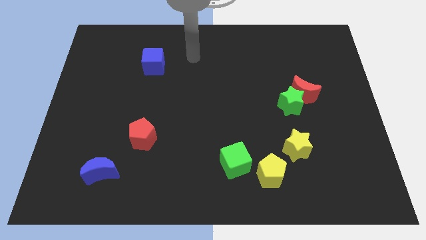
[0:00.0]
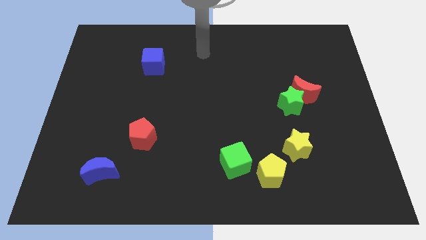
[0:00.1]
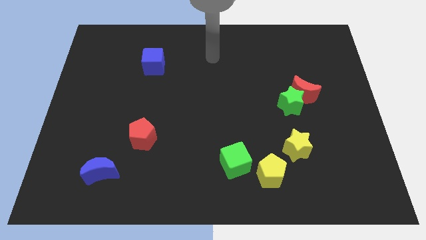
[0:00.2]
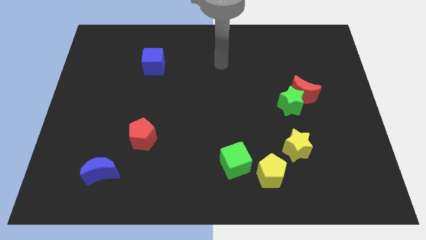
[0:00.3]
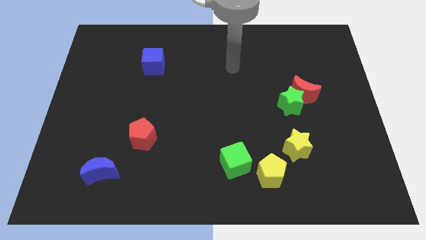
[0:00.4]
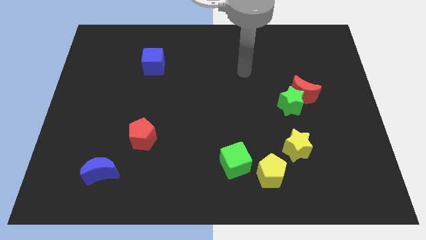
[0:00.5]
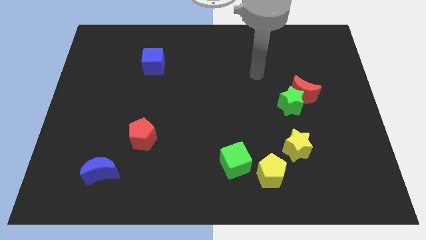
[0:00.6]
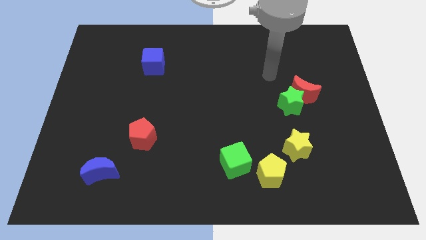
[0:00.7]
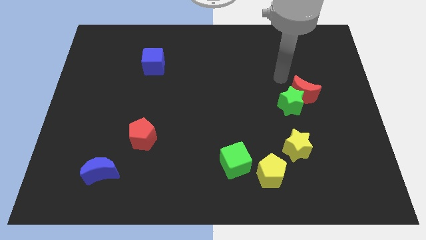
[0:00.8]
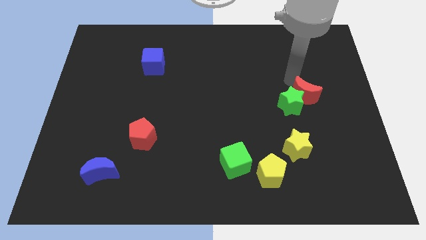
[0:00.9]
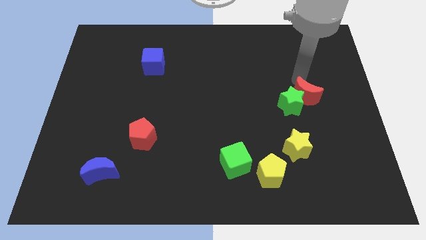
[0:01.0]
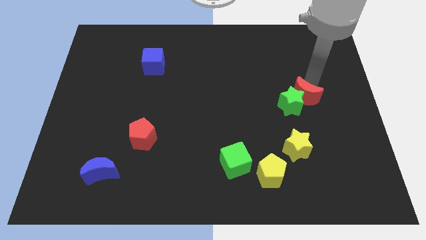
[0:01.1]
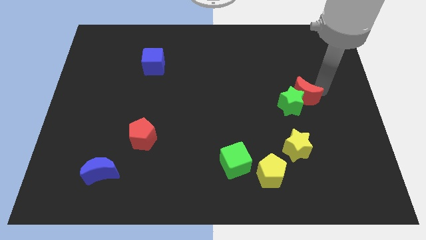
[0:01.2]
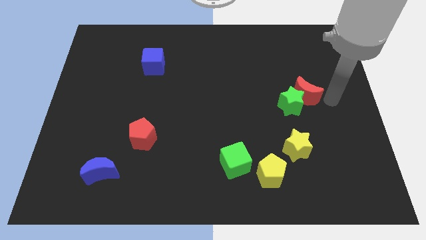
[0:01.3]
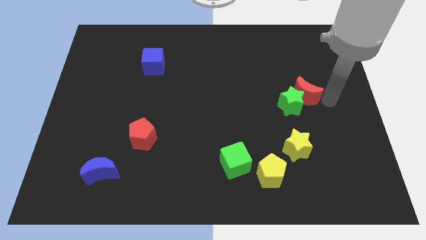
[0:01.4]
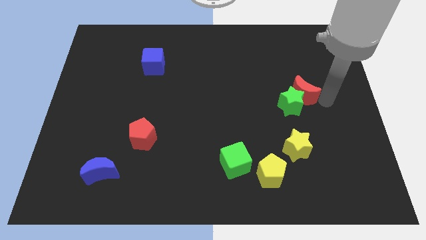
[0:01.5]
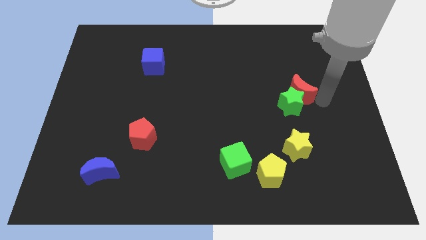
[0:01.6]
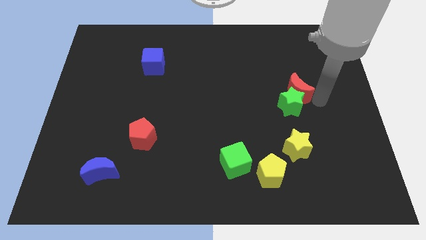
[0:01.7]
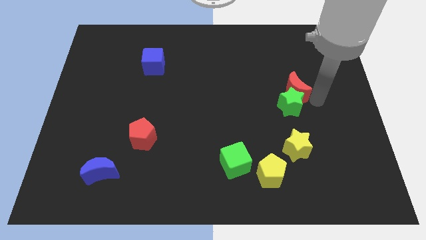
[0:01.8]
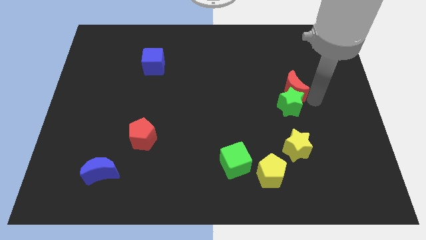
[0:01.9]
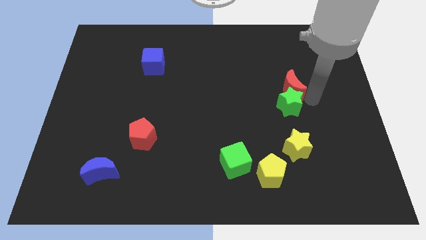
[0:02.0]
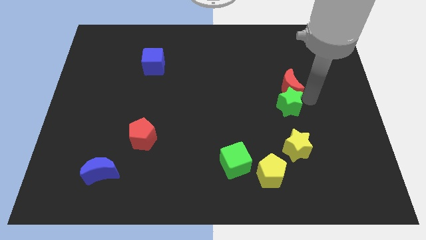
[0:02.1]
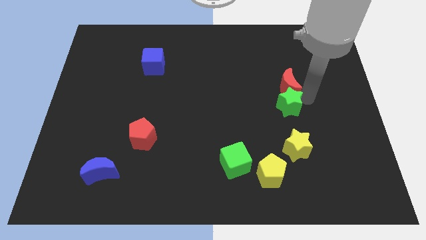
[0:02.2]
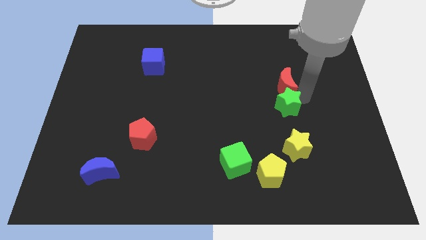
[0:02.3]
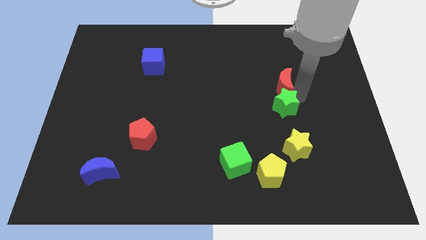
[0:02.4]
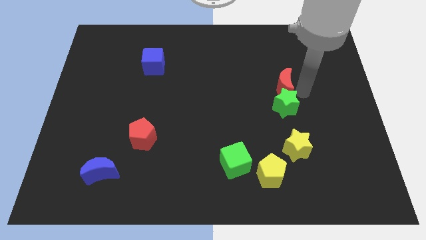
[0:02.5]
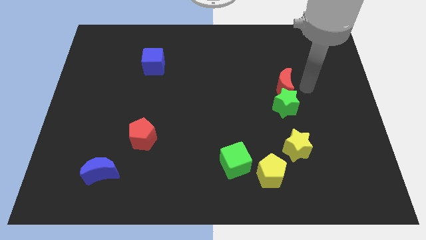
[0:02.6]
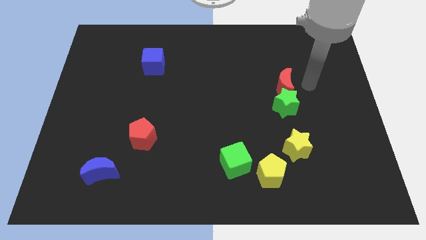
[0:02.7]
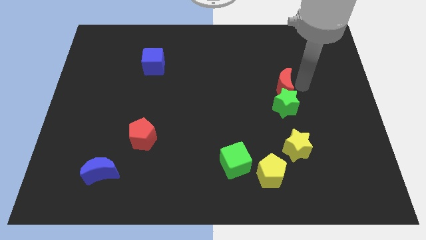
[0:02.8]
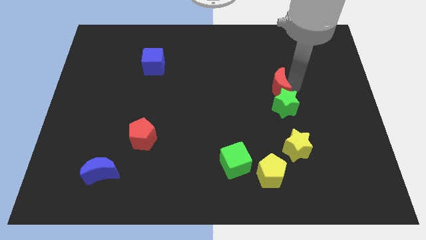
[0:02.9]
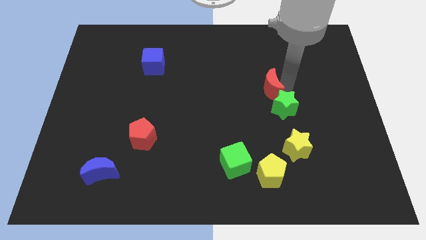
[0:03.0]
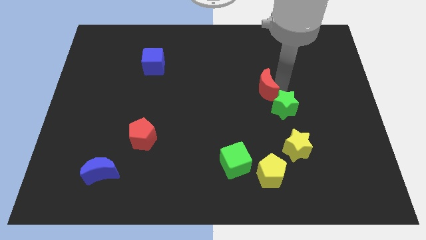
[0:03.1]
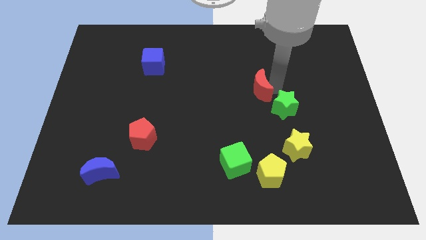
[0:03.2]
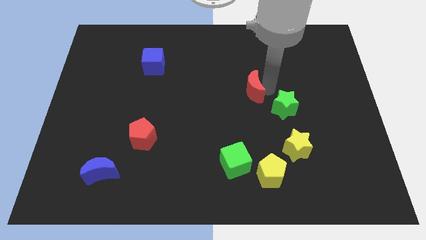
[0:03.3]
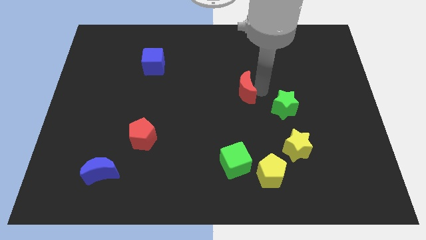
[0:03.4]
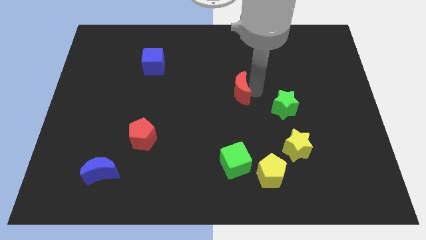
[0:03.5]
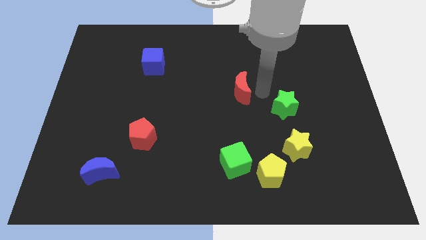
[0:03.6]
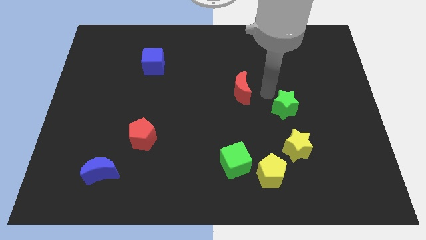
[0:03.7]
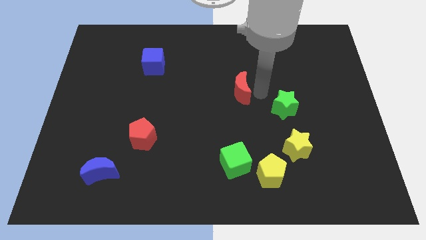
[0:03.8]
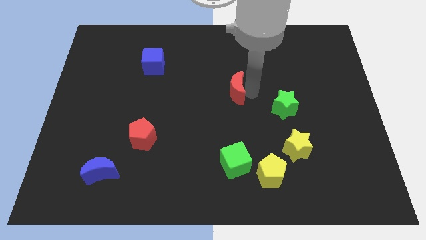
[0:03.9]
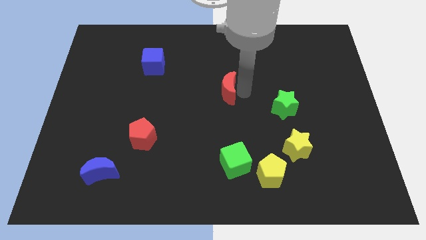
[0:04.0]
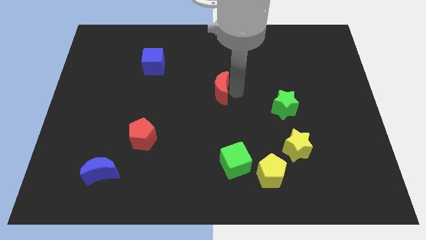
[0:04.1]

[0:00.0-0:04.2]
slide the red moon to the left

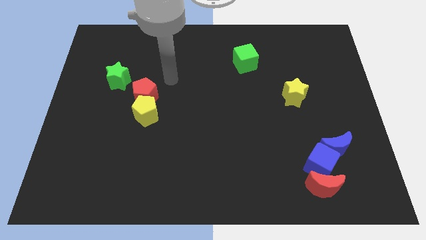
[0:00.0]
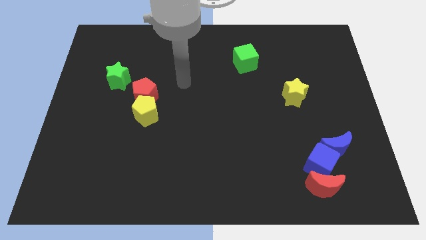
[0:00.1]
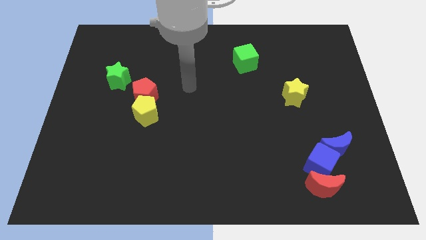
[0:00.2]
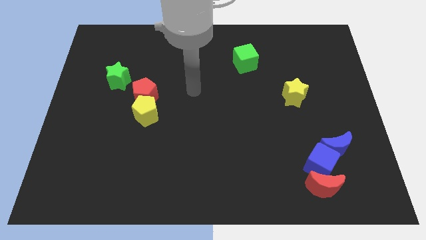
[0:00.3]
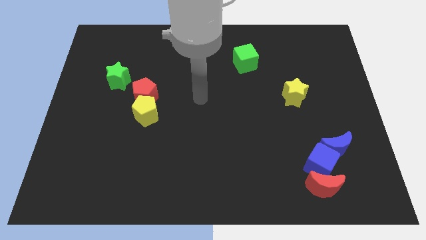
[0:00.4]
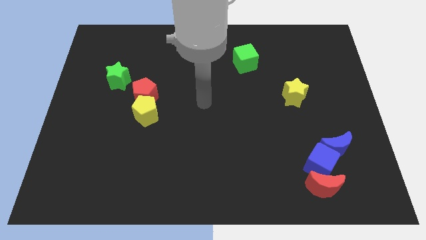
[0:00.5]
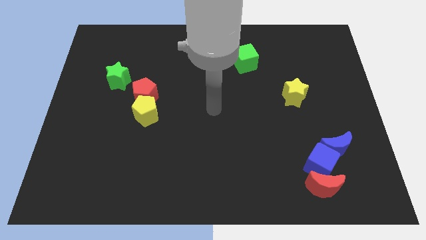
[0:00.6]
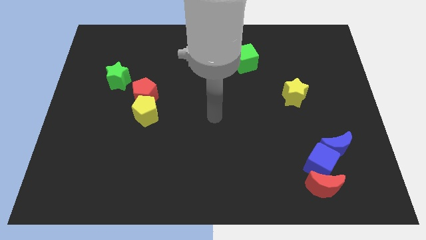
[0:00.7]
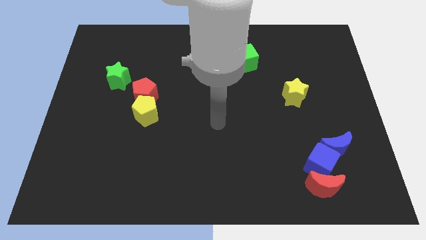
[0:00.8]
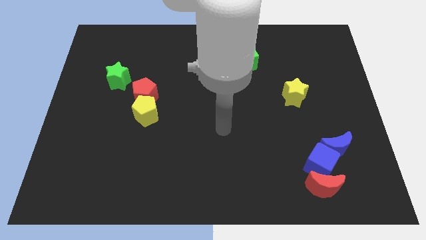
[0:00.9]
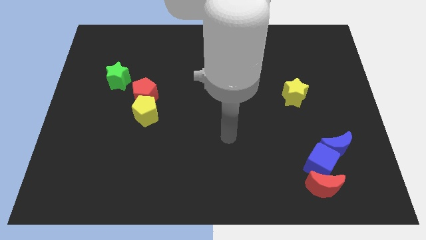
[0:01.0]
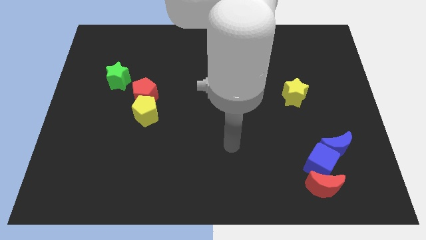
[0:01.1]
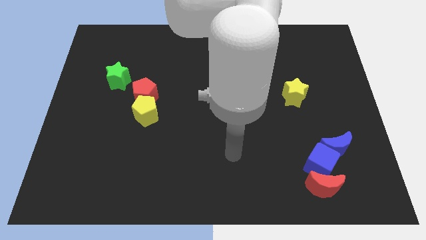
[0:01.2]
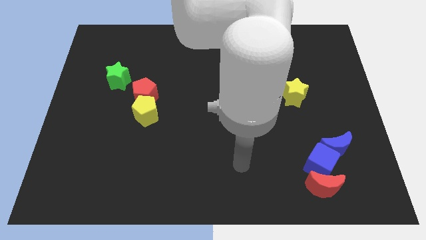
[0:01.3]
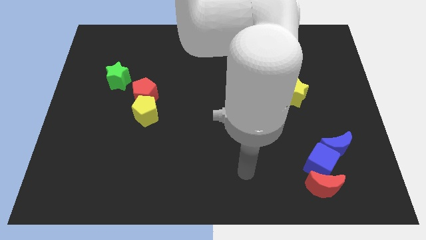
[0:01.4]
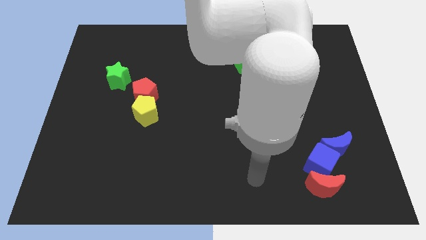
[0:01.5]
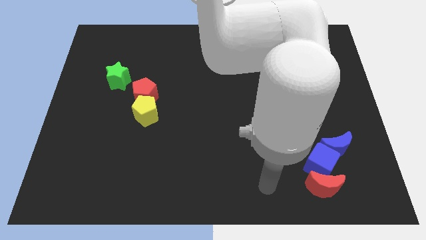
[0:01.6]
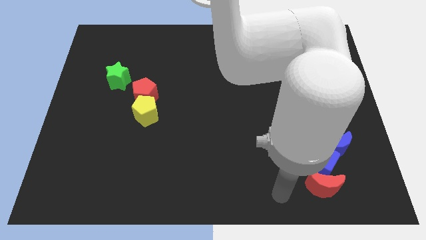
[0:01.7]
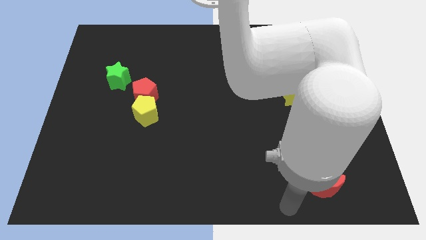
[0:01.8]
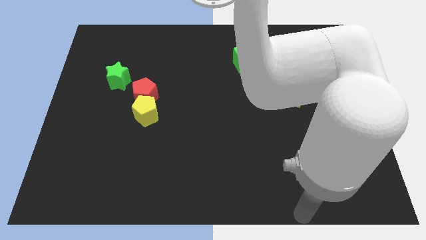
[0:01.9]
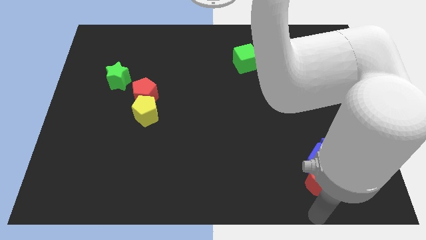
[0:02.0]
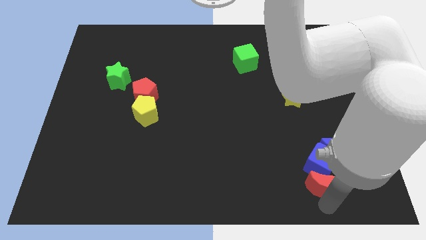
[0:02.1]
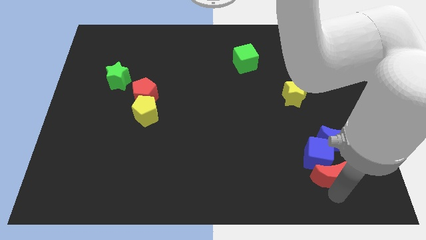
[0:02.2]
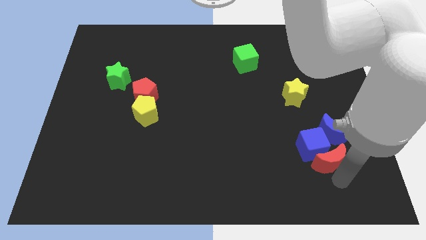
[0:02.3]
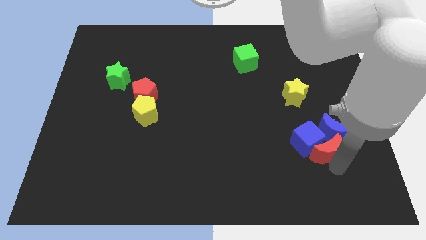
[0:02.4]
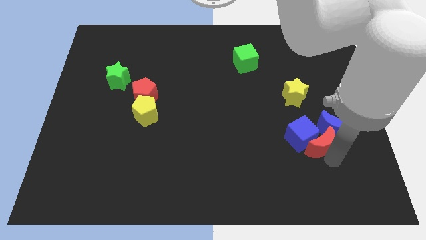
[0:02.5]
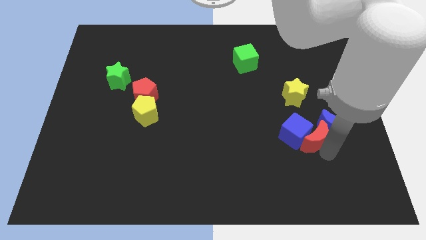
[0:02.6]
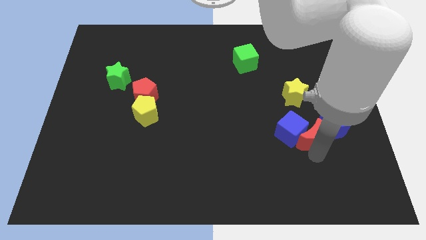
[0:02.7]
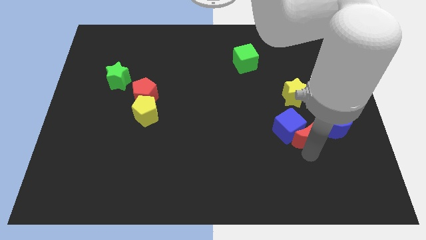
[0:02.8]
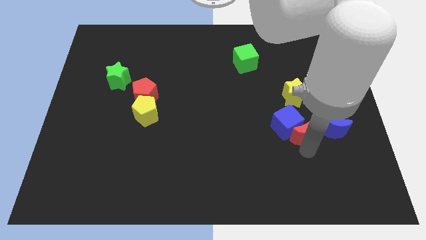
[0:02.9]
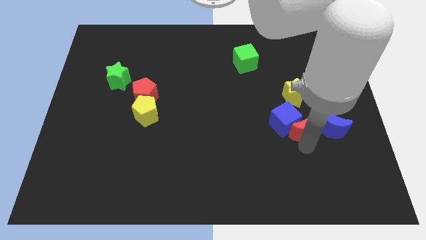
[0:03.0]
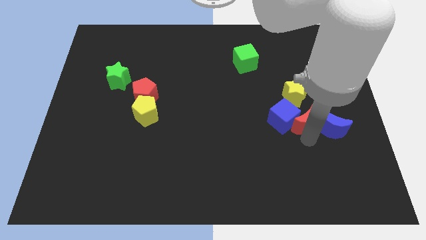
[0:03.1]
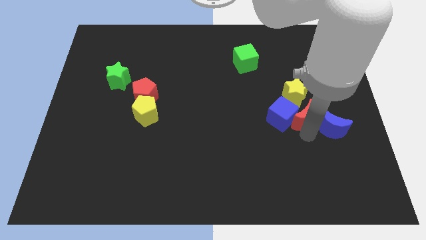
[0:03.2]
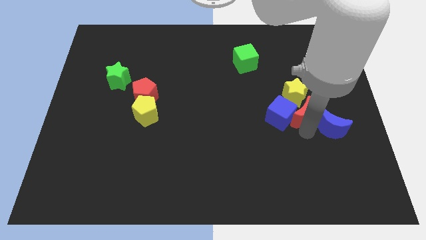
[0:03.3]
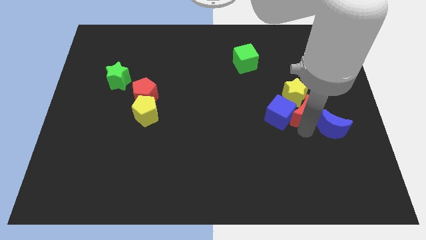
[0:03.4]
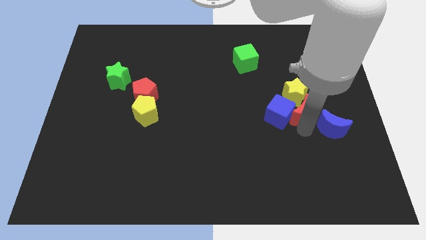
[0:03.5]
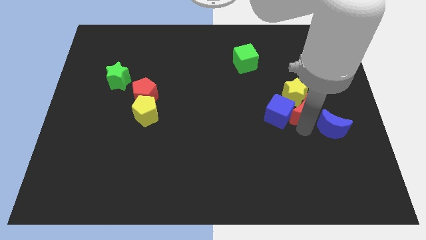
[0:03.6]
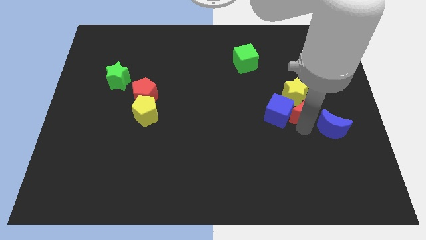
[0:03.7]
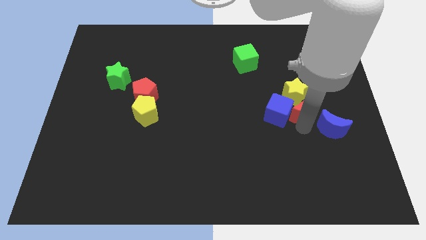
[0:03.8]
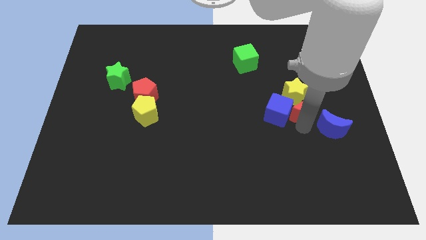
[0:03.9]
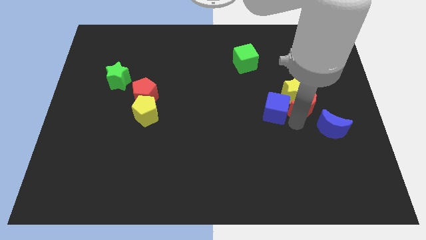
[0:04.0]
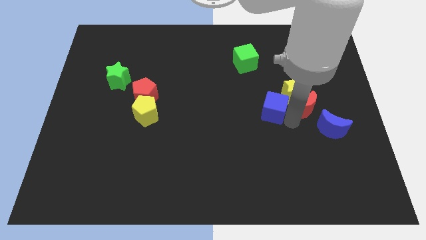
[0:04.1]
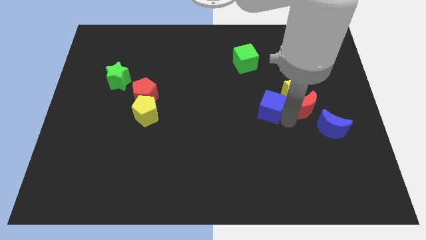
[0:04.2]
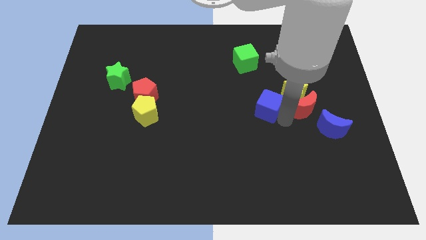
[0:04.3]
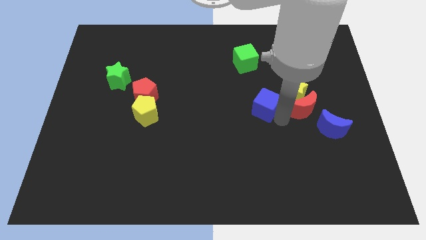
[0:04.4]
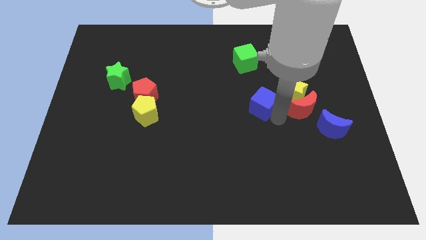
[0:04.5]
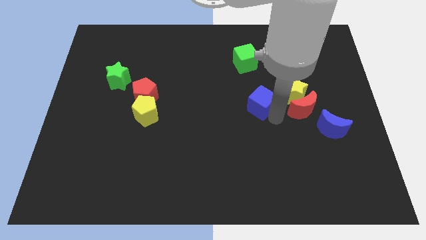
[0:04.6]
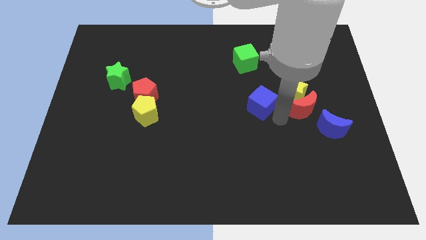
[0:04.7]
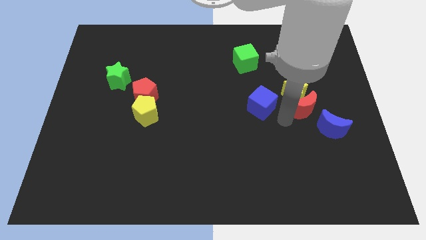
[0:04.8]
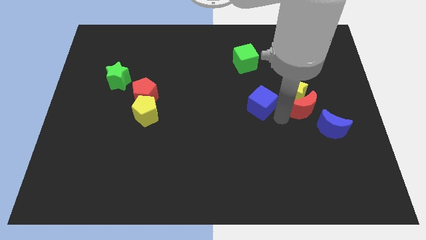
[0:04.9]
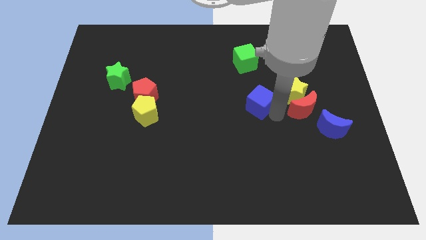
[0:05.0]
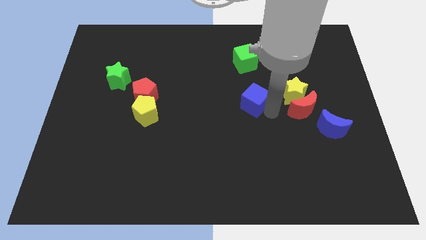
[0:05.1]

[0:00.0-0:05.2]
slide the blue cube diagonally up and left
